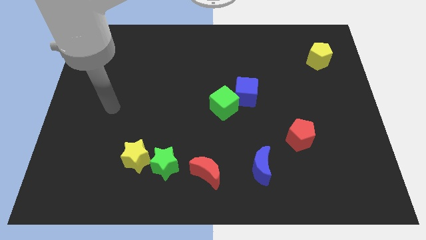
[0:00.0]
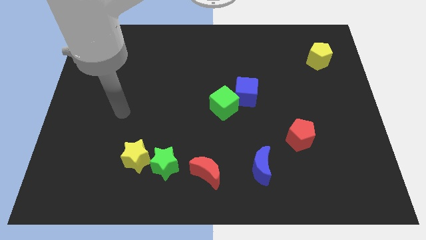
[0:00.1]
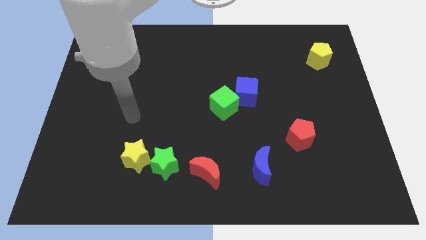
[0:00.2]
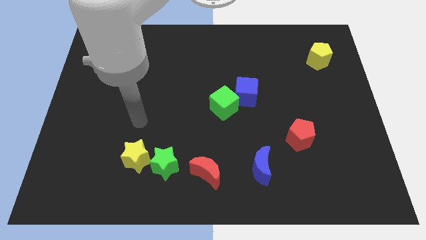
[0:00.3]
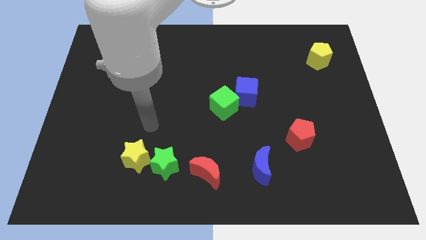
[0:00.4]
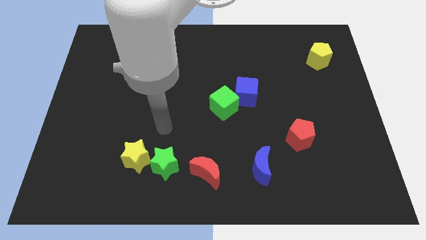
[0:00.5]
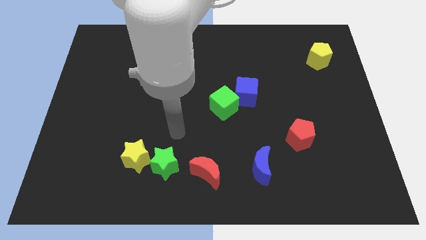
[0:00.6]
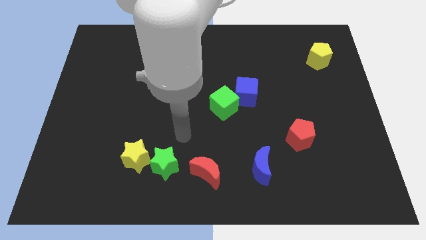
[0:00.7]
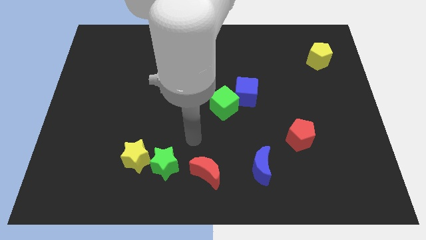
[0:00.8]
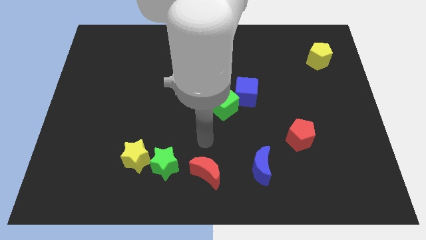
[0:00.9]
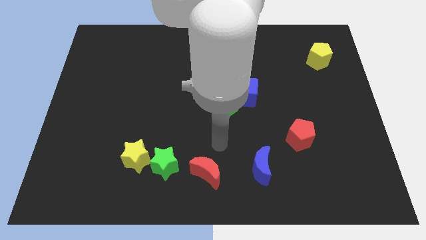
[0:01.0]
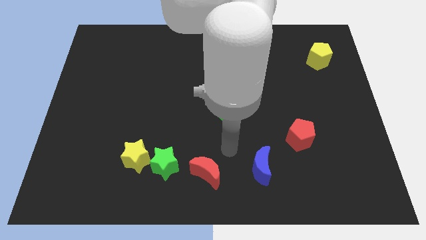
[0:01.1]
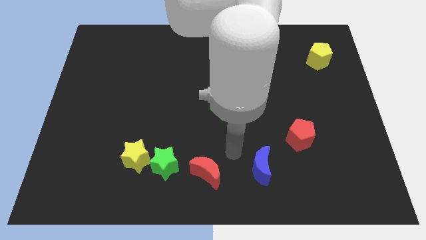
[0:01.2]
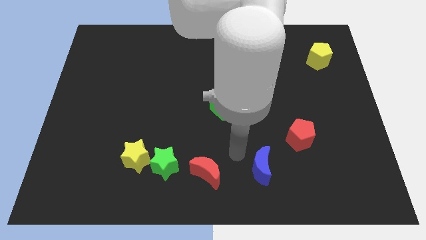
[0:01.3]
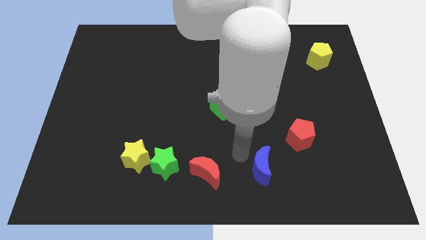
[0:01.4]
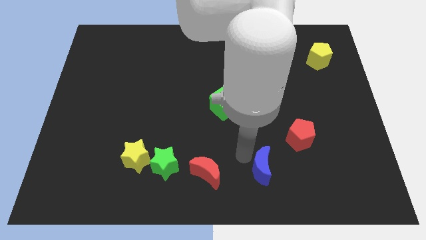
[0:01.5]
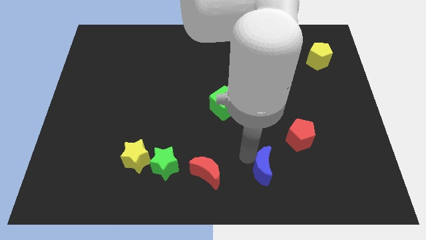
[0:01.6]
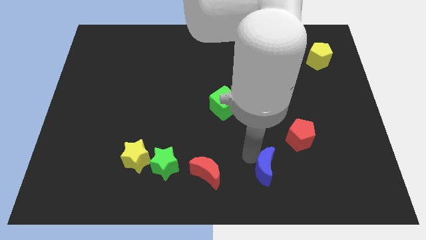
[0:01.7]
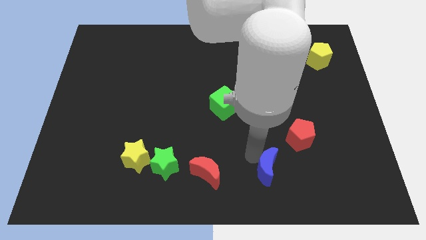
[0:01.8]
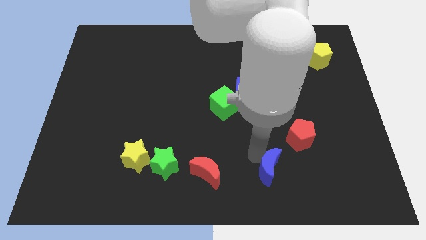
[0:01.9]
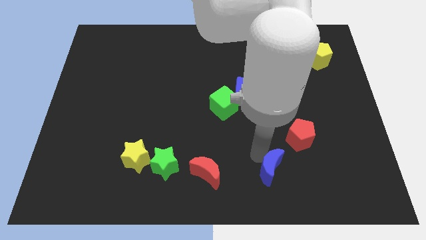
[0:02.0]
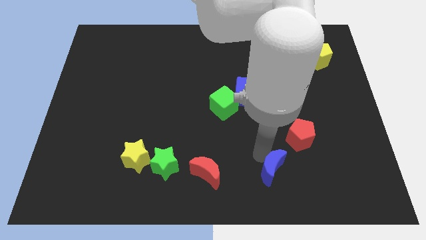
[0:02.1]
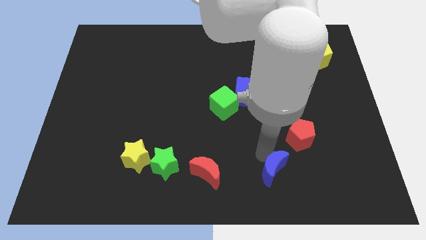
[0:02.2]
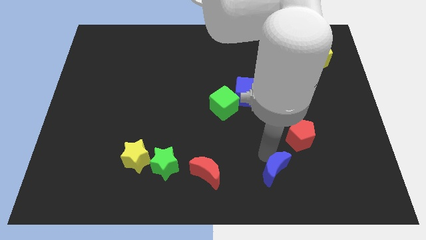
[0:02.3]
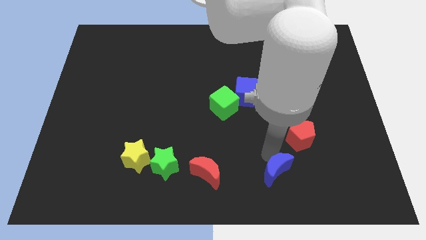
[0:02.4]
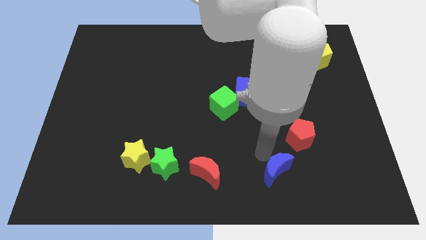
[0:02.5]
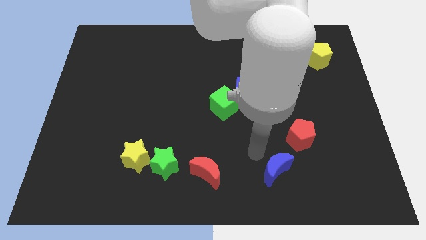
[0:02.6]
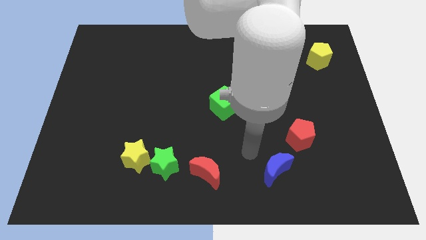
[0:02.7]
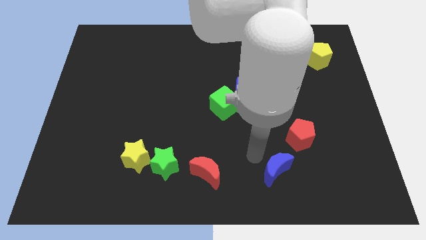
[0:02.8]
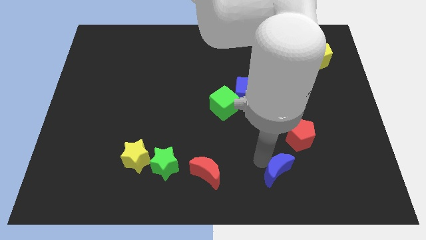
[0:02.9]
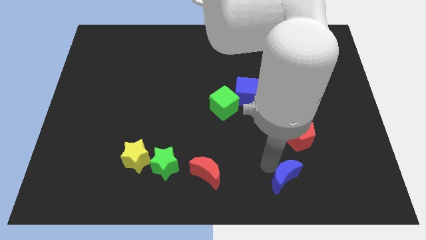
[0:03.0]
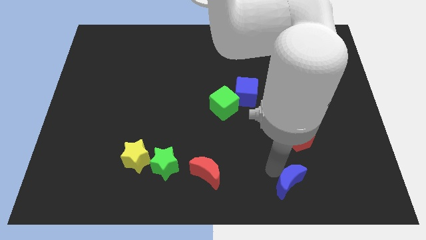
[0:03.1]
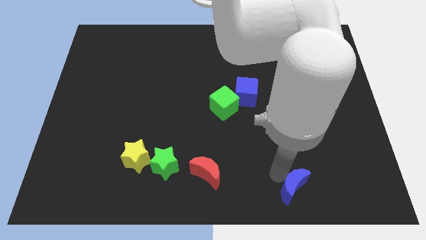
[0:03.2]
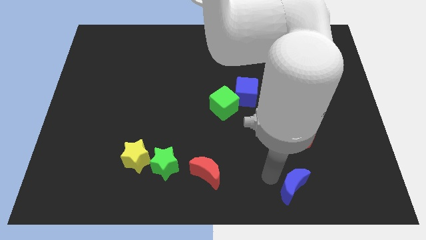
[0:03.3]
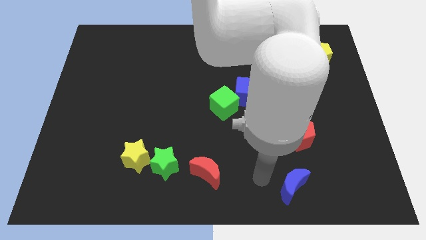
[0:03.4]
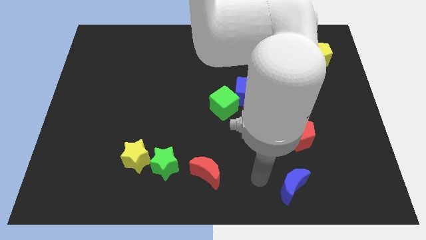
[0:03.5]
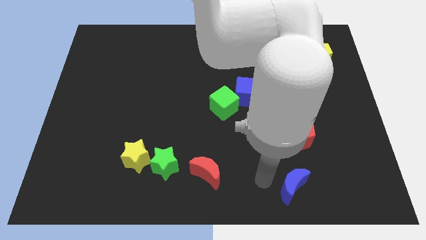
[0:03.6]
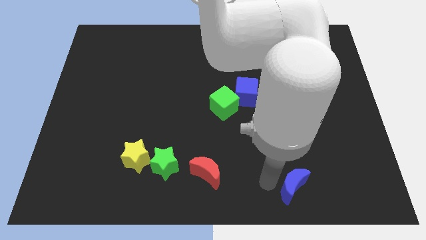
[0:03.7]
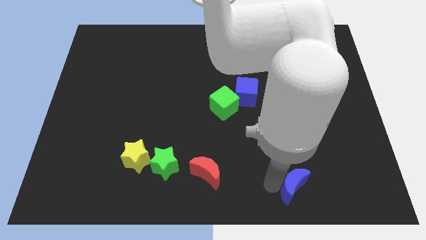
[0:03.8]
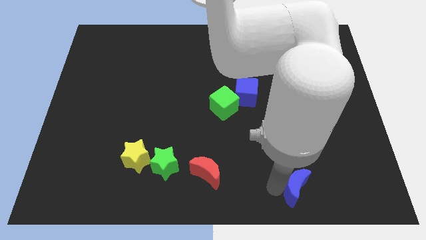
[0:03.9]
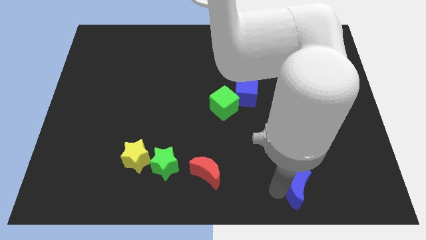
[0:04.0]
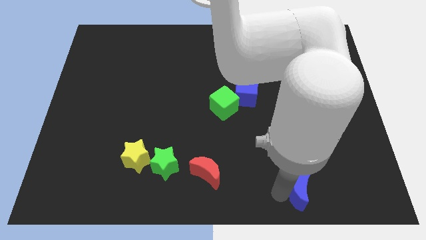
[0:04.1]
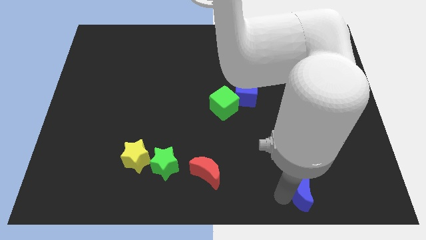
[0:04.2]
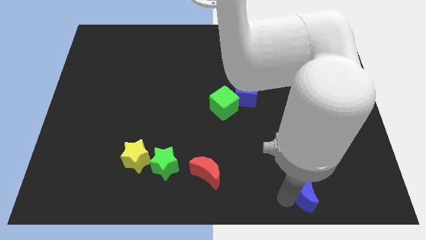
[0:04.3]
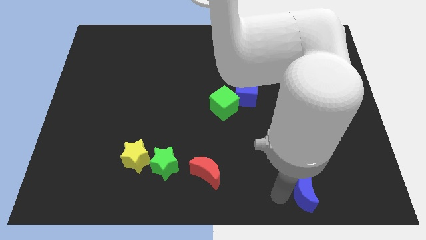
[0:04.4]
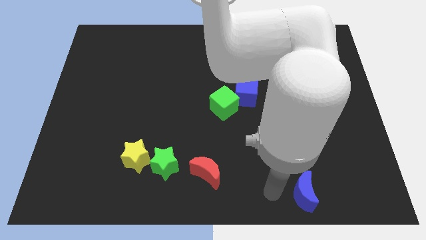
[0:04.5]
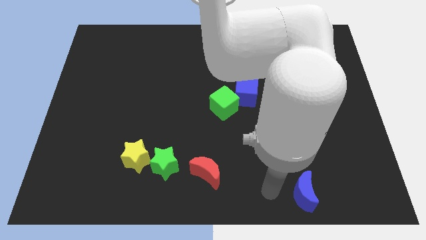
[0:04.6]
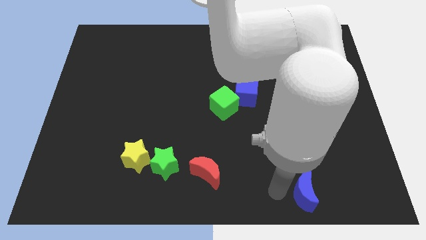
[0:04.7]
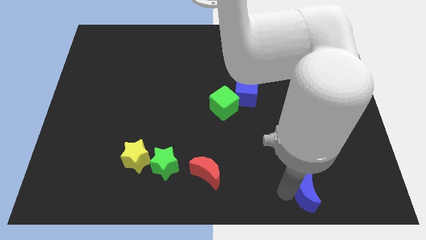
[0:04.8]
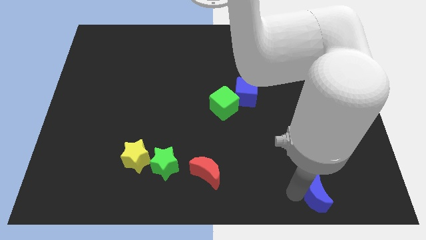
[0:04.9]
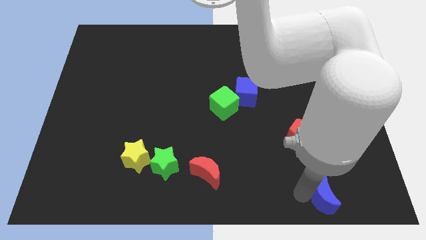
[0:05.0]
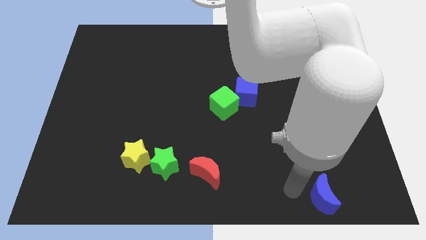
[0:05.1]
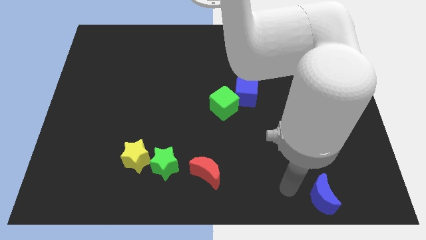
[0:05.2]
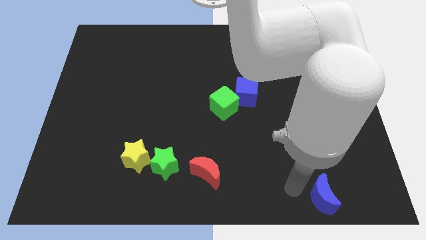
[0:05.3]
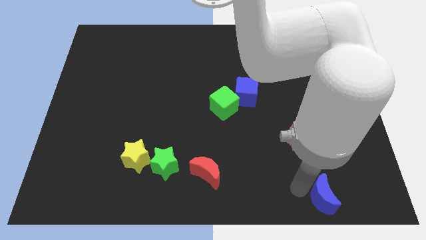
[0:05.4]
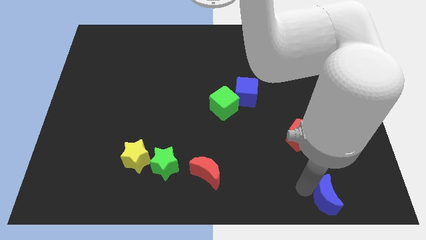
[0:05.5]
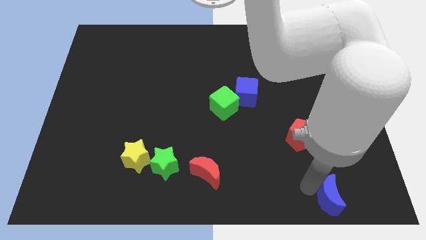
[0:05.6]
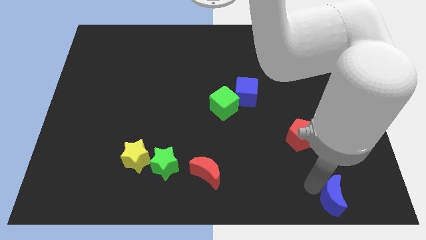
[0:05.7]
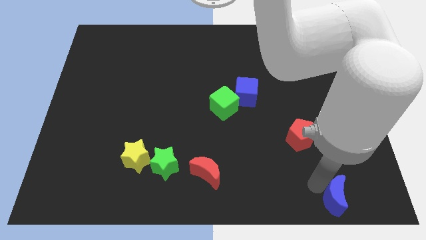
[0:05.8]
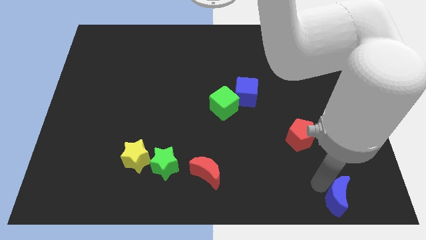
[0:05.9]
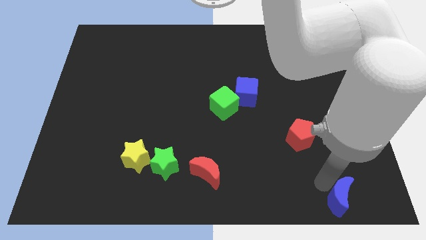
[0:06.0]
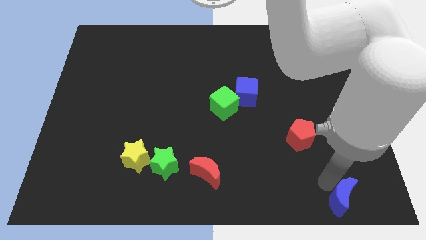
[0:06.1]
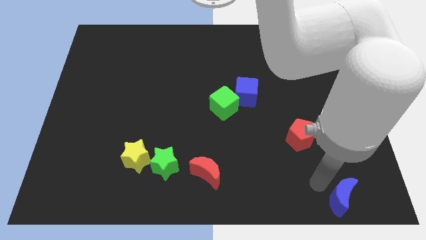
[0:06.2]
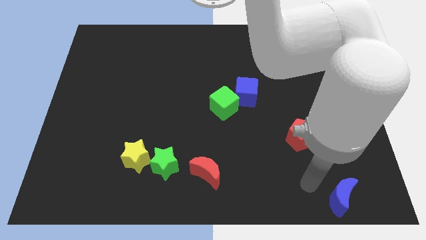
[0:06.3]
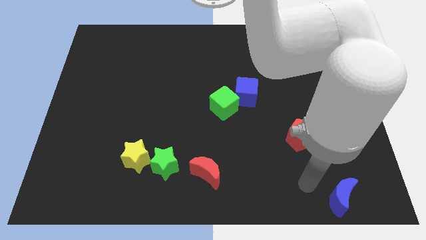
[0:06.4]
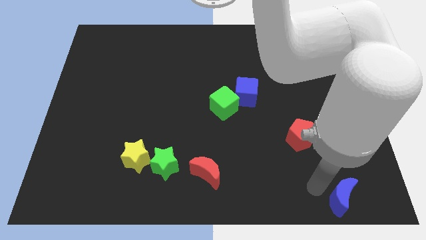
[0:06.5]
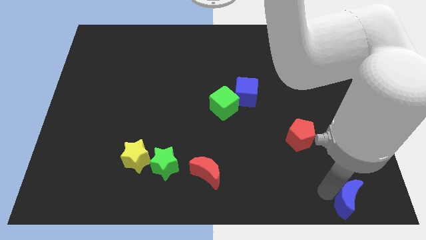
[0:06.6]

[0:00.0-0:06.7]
slide the blue moon to the bottom right
